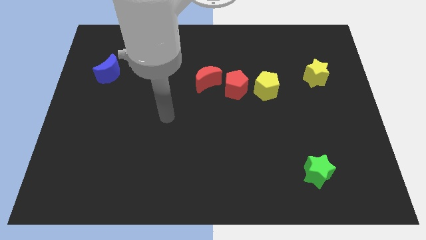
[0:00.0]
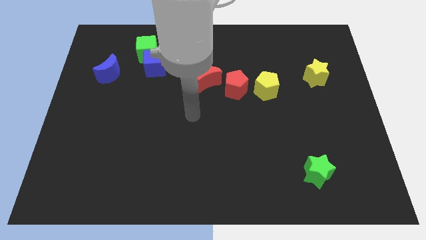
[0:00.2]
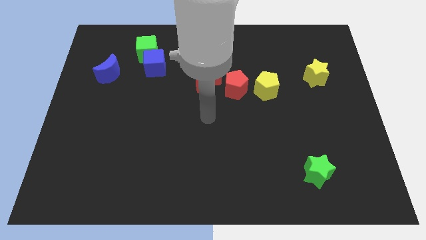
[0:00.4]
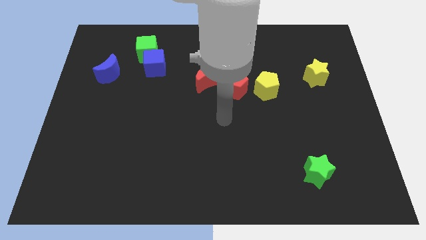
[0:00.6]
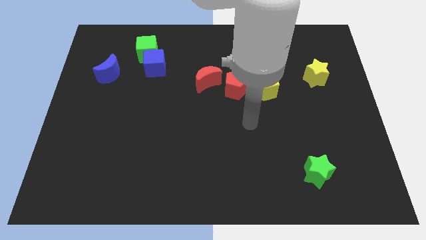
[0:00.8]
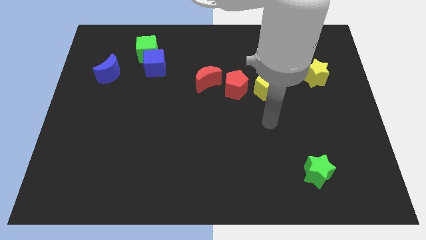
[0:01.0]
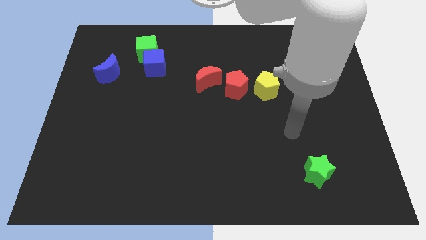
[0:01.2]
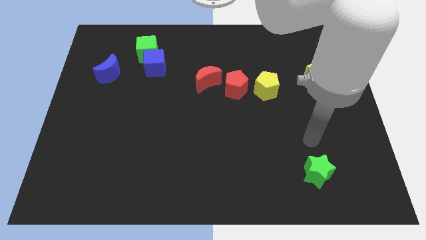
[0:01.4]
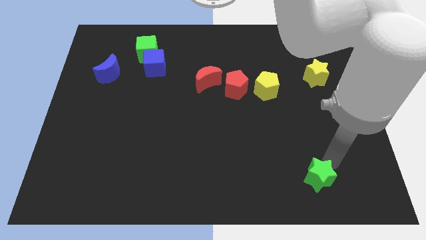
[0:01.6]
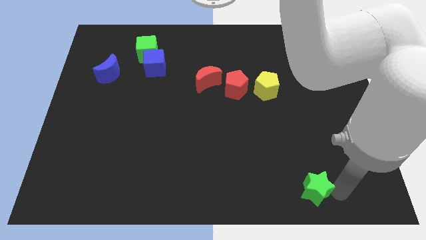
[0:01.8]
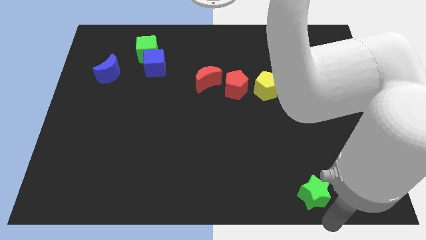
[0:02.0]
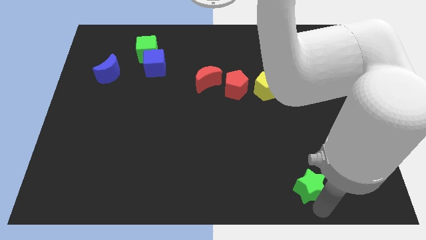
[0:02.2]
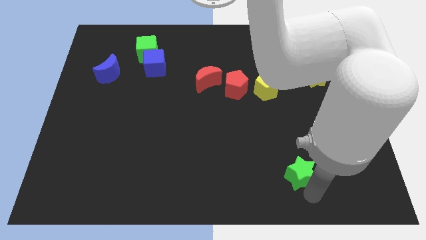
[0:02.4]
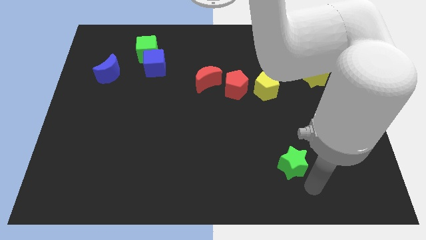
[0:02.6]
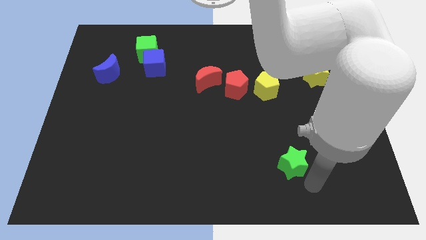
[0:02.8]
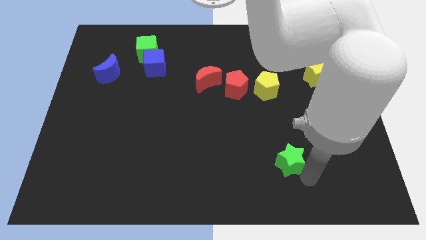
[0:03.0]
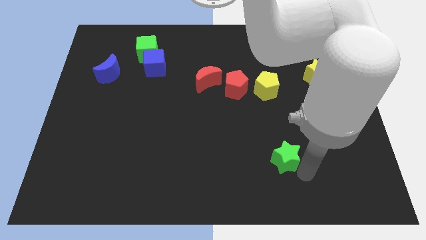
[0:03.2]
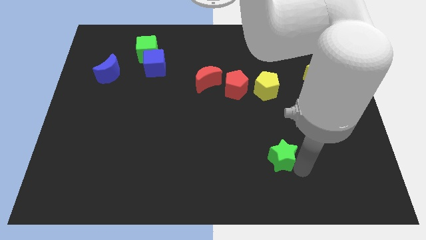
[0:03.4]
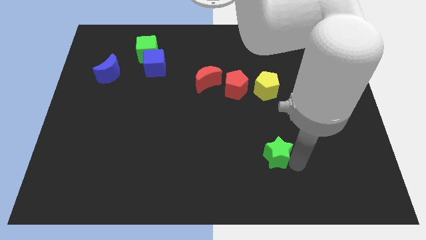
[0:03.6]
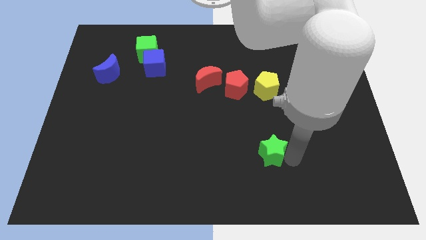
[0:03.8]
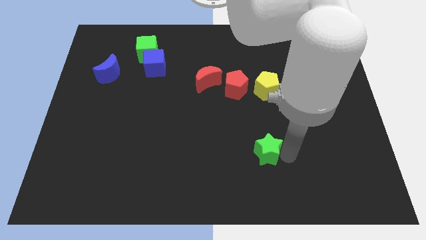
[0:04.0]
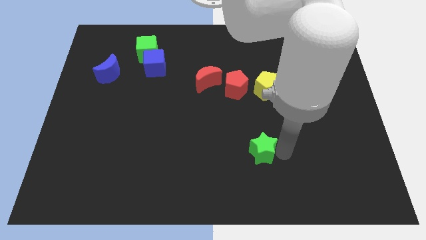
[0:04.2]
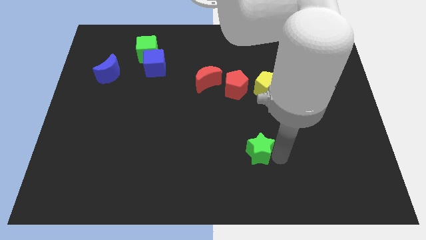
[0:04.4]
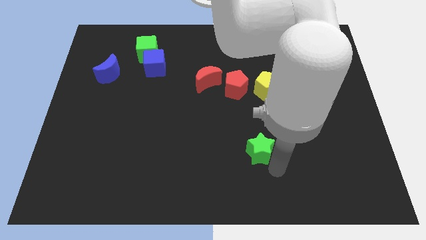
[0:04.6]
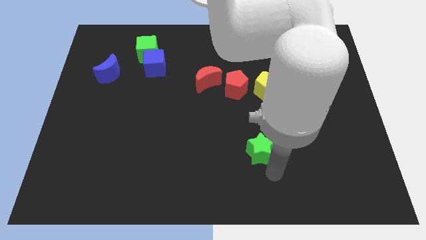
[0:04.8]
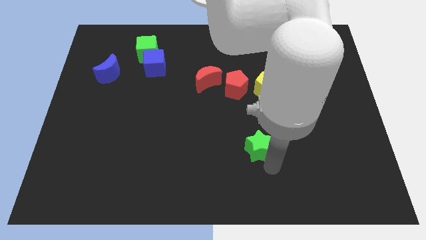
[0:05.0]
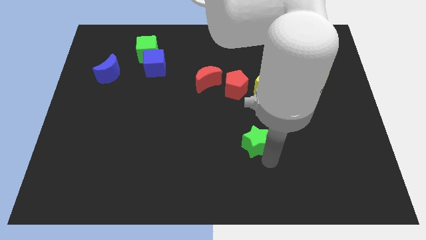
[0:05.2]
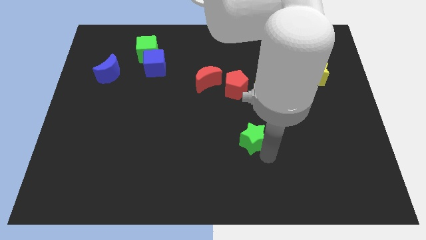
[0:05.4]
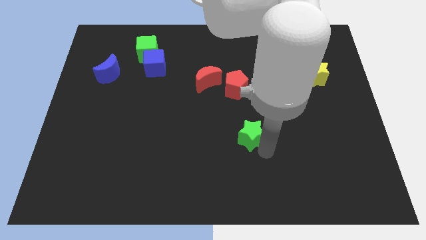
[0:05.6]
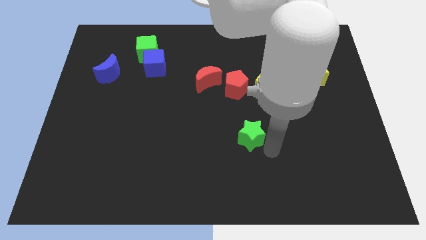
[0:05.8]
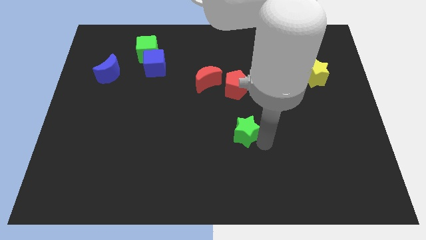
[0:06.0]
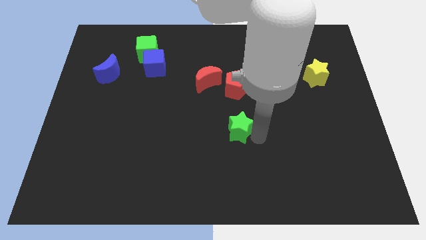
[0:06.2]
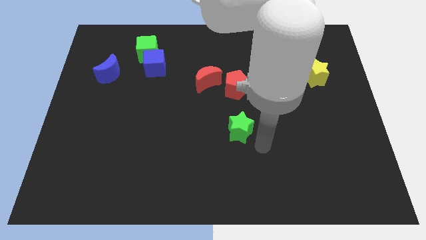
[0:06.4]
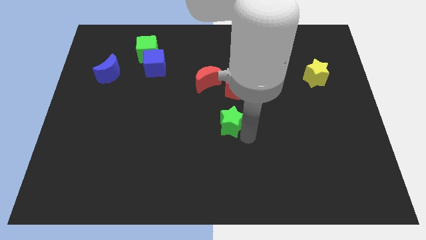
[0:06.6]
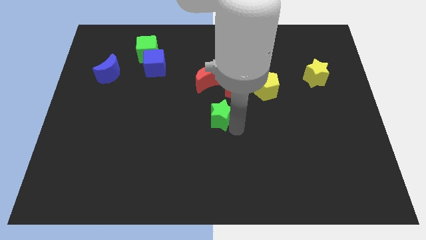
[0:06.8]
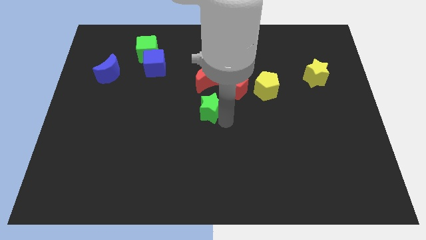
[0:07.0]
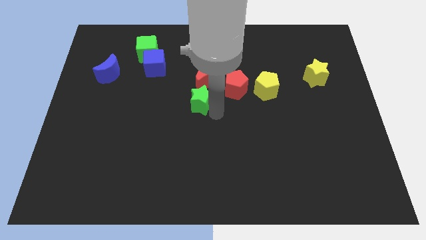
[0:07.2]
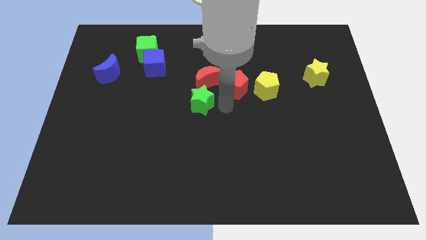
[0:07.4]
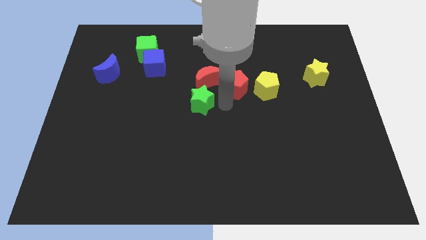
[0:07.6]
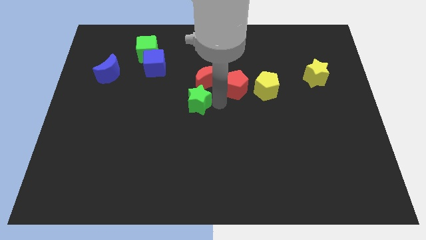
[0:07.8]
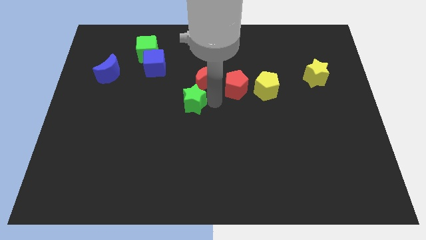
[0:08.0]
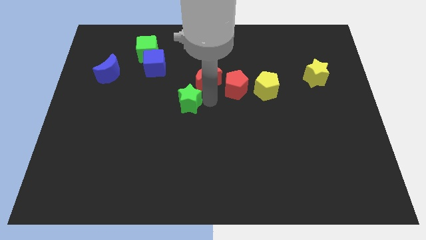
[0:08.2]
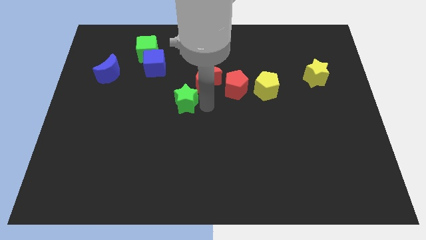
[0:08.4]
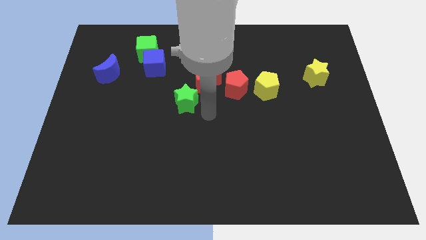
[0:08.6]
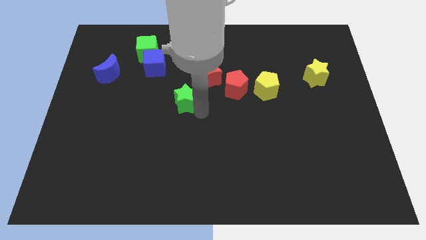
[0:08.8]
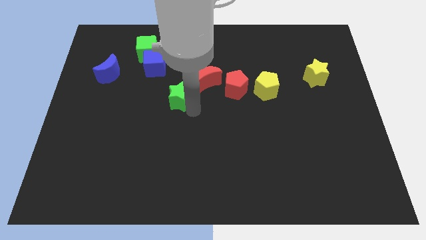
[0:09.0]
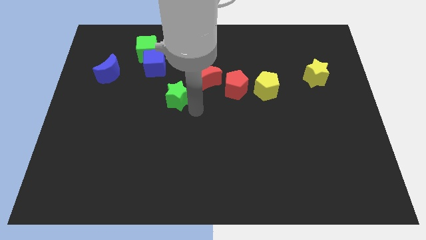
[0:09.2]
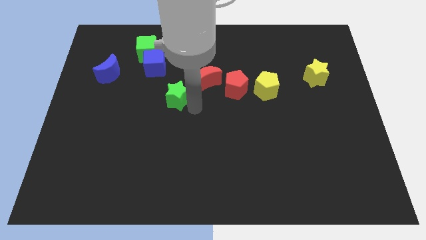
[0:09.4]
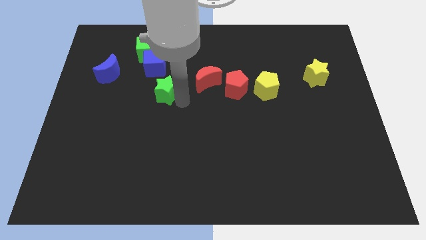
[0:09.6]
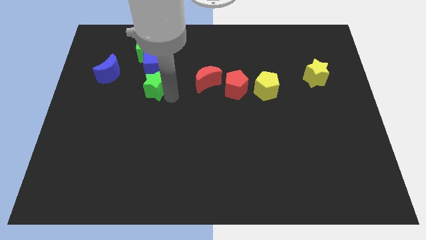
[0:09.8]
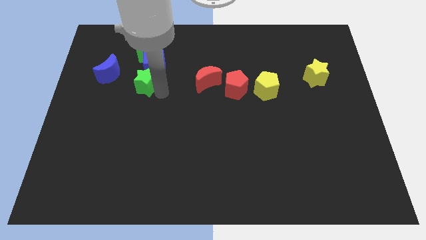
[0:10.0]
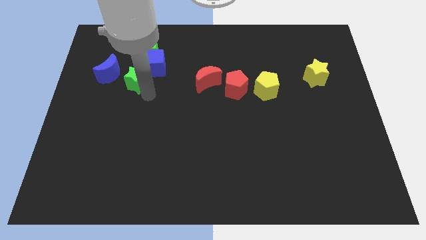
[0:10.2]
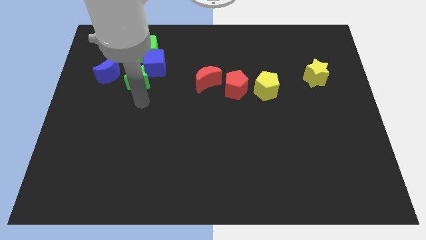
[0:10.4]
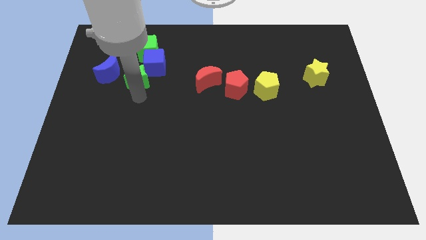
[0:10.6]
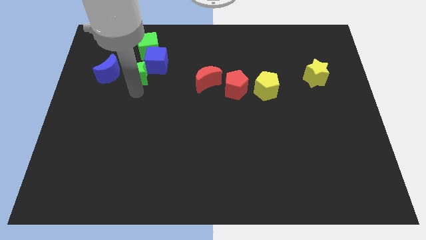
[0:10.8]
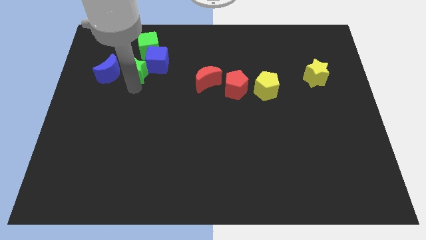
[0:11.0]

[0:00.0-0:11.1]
slide the green star to the top right side of the blue moon
